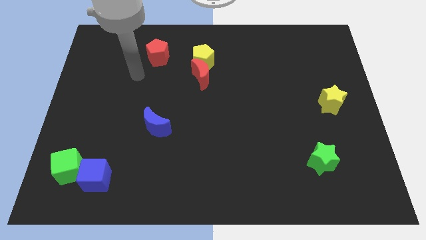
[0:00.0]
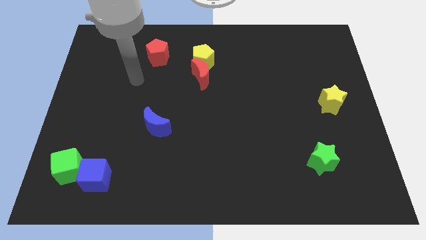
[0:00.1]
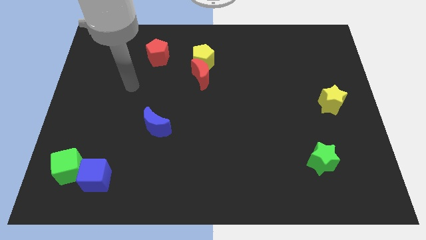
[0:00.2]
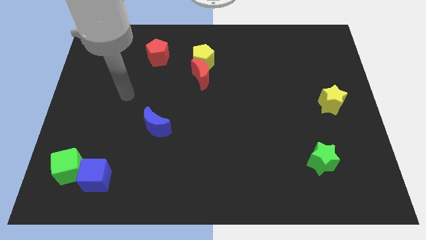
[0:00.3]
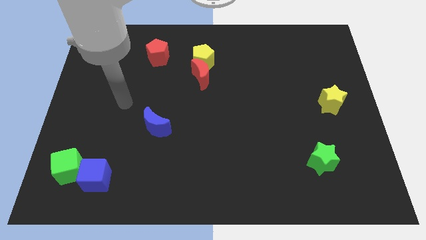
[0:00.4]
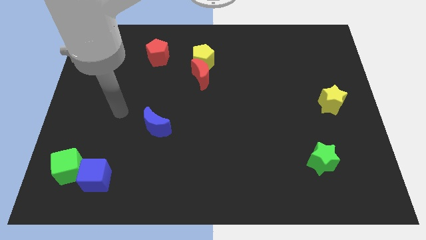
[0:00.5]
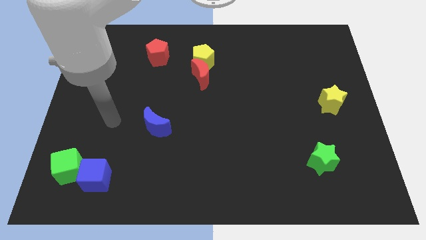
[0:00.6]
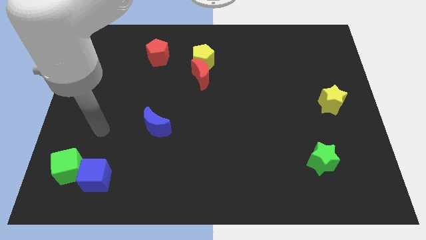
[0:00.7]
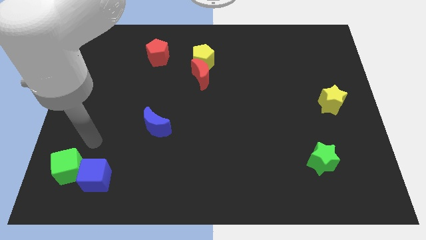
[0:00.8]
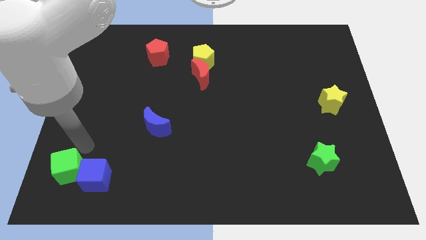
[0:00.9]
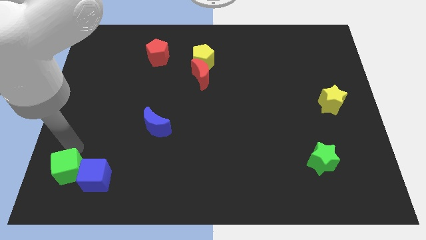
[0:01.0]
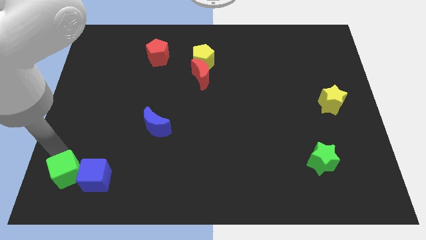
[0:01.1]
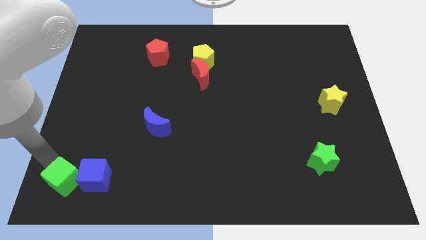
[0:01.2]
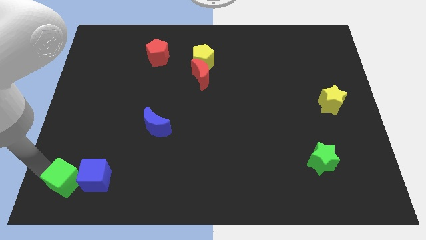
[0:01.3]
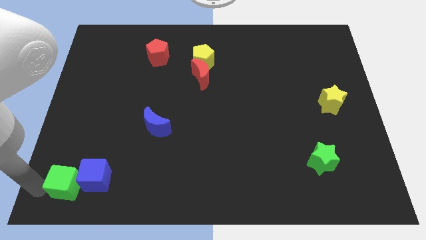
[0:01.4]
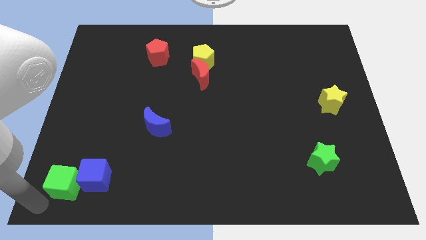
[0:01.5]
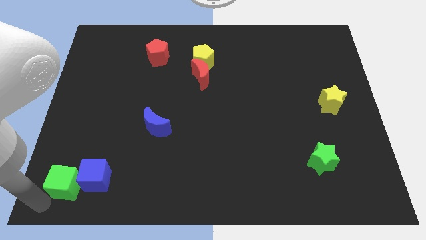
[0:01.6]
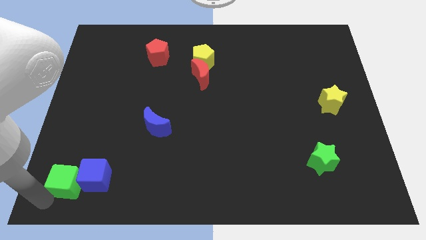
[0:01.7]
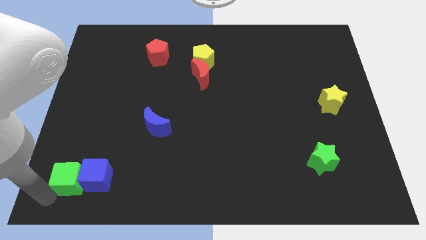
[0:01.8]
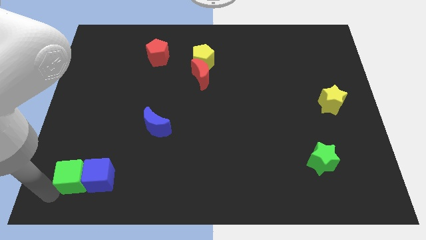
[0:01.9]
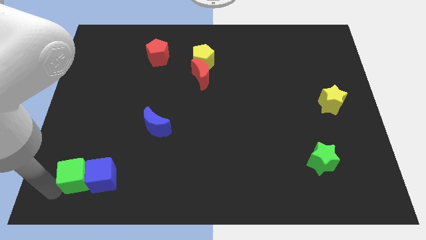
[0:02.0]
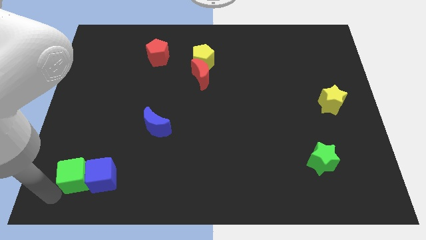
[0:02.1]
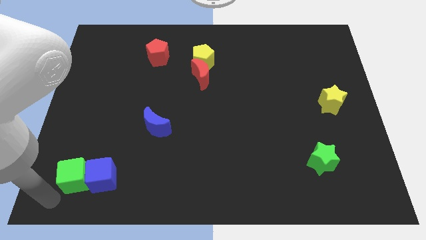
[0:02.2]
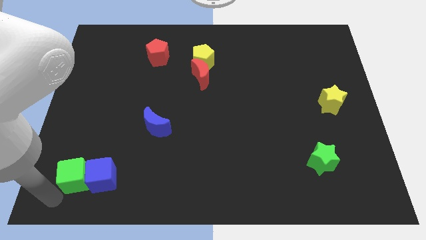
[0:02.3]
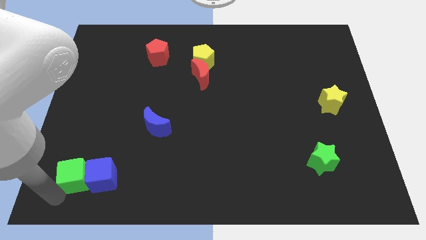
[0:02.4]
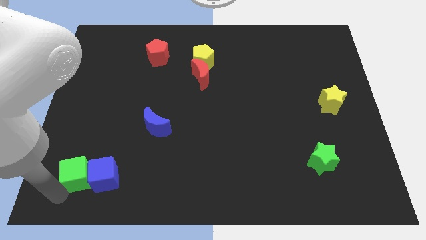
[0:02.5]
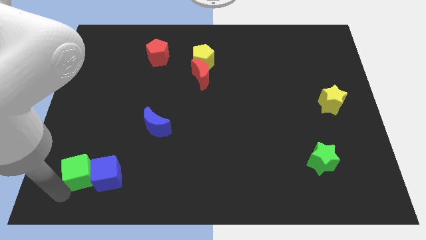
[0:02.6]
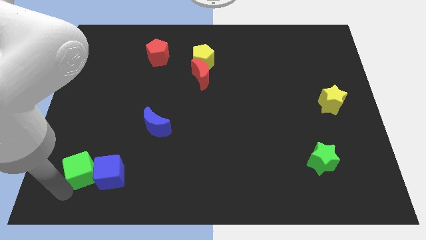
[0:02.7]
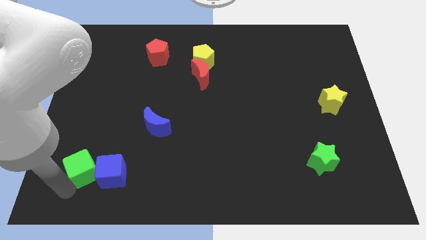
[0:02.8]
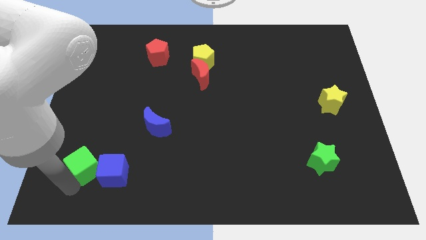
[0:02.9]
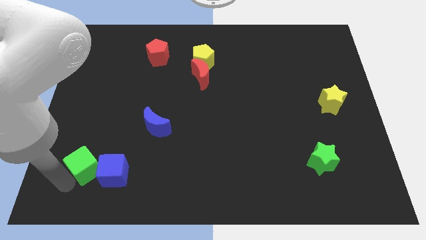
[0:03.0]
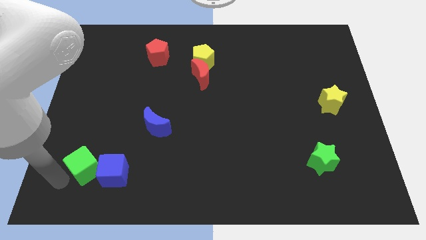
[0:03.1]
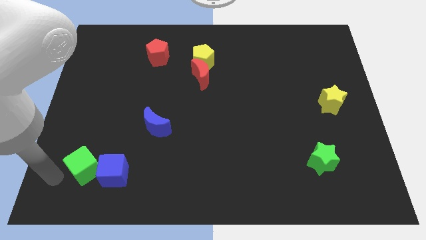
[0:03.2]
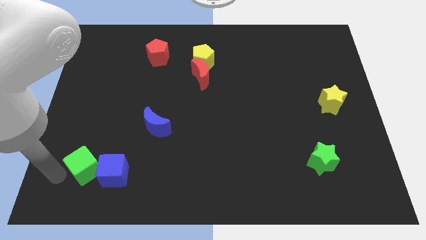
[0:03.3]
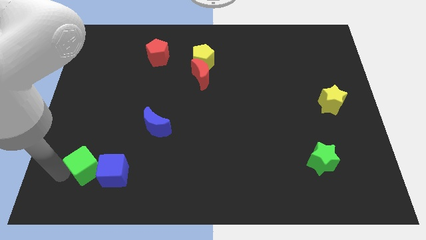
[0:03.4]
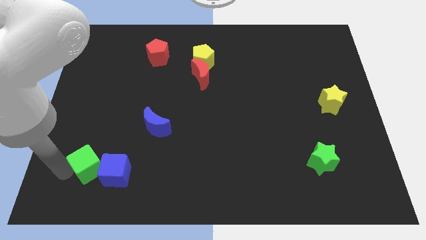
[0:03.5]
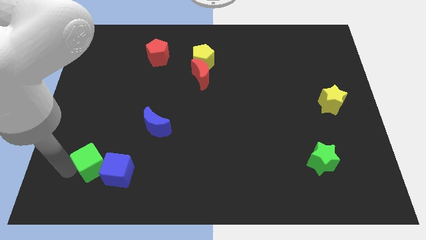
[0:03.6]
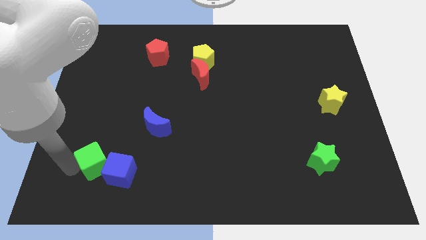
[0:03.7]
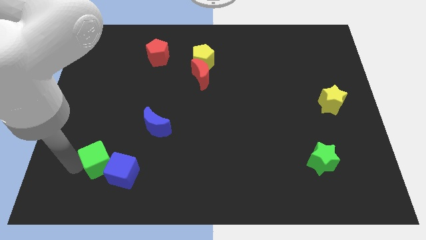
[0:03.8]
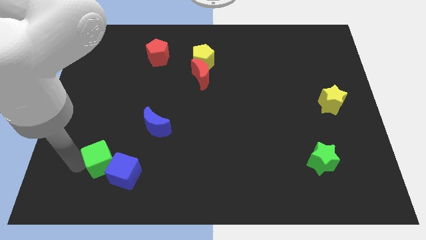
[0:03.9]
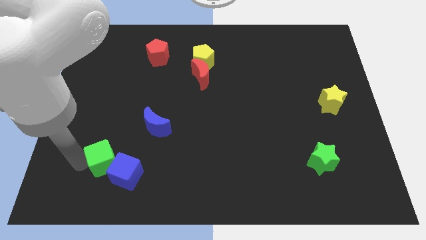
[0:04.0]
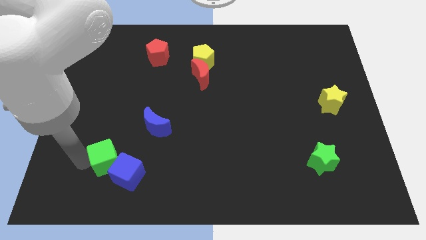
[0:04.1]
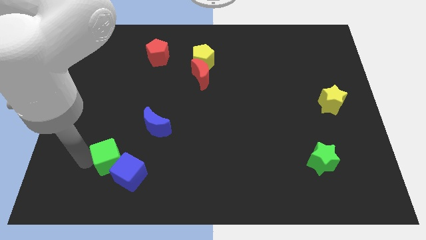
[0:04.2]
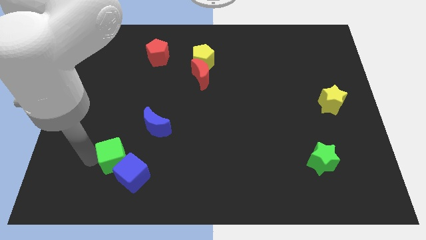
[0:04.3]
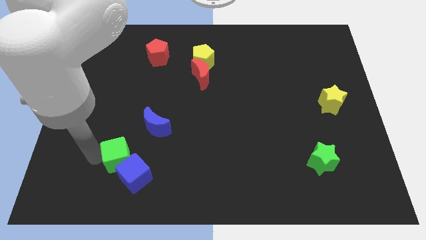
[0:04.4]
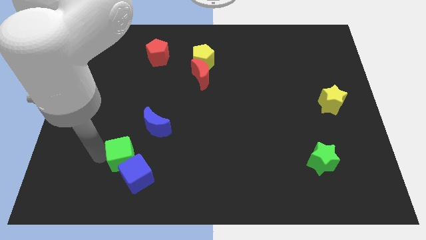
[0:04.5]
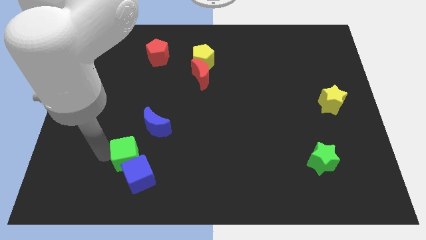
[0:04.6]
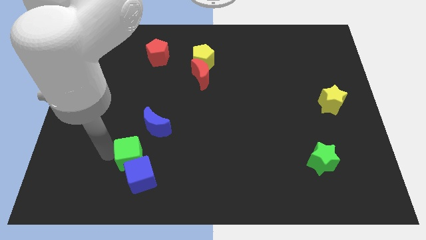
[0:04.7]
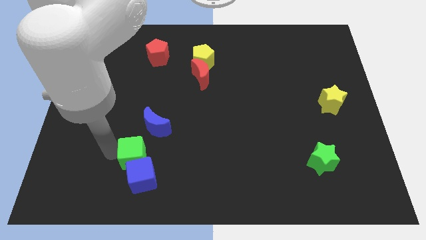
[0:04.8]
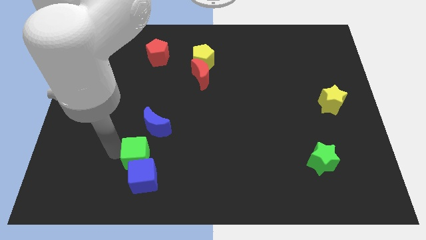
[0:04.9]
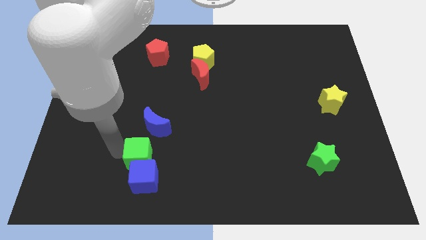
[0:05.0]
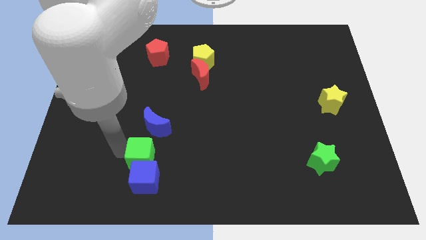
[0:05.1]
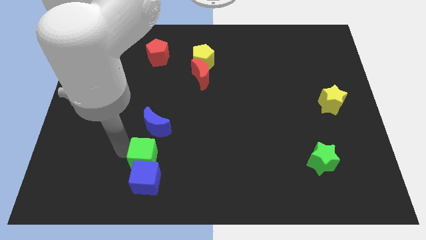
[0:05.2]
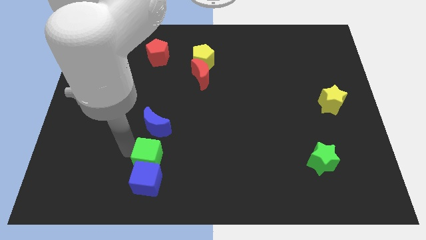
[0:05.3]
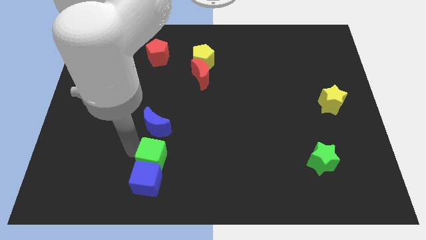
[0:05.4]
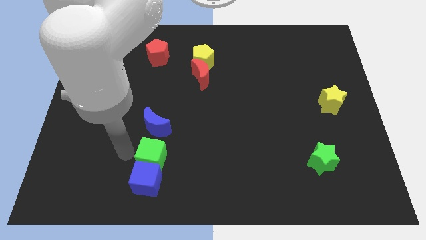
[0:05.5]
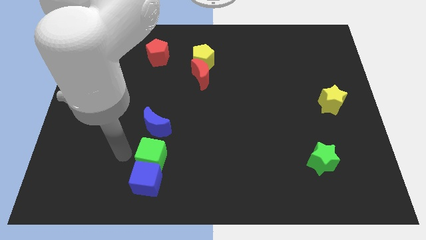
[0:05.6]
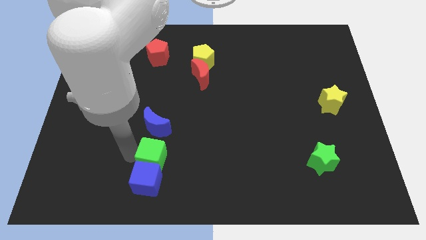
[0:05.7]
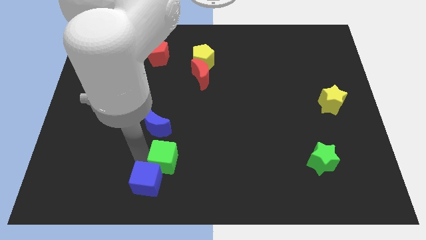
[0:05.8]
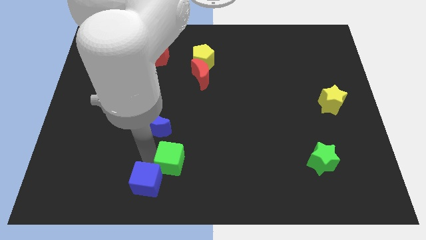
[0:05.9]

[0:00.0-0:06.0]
slide the green cube to the right

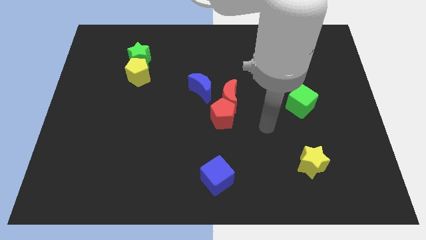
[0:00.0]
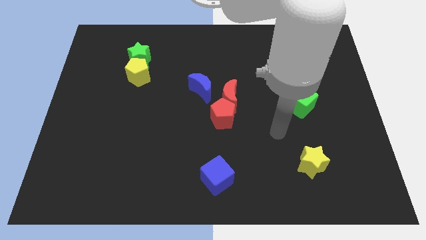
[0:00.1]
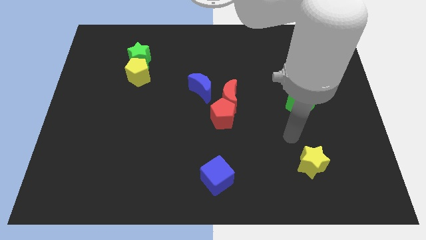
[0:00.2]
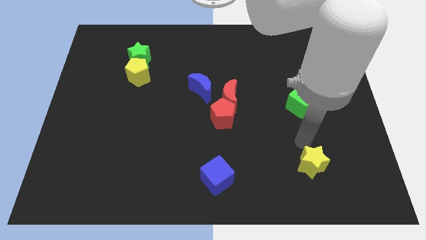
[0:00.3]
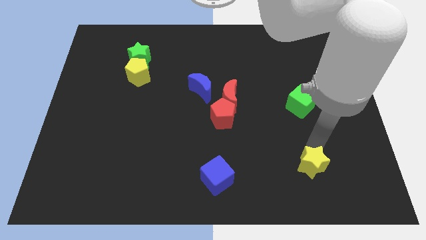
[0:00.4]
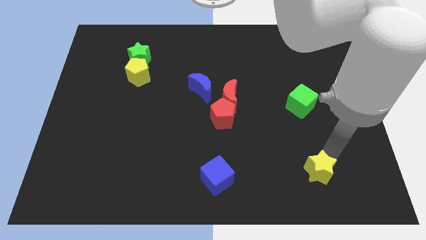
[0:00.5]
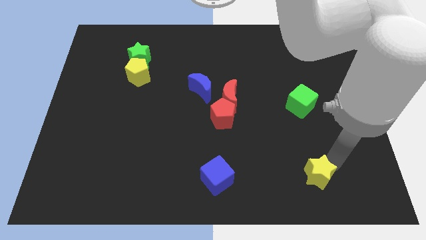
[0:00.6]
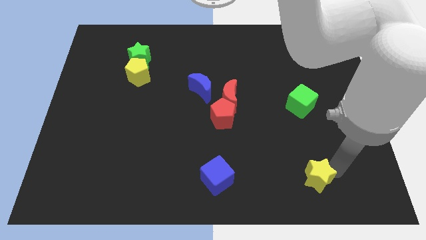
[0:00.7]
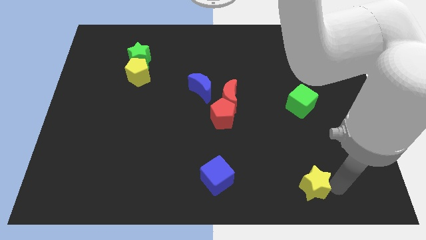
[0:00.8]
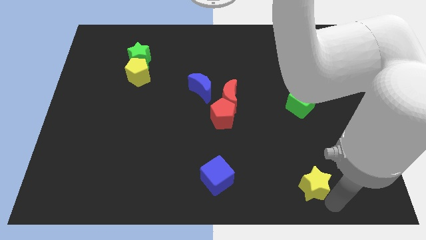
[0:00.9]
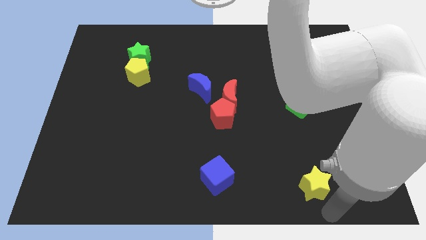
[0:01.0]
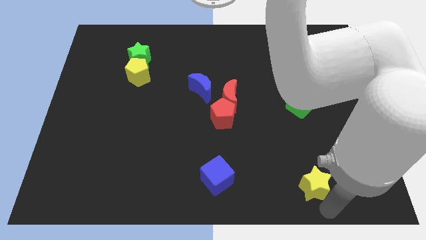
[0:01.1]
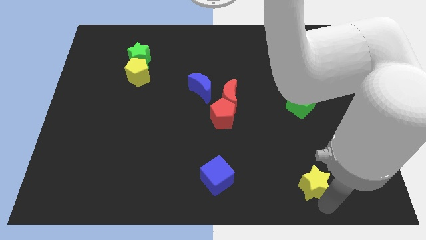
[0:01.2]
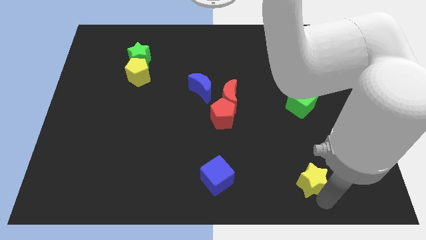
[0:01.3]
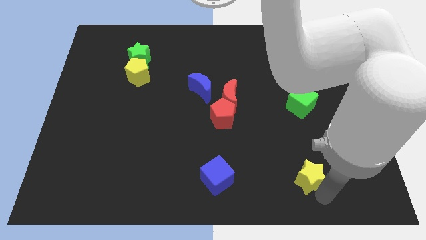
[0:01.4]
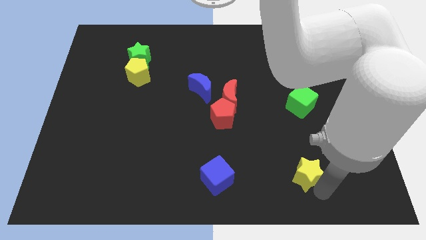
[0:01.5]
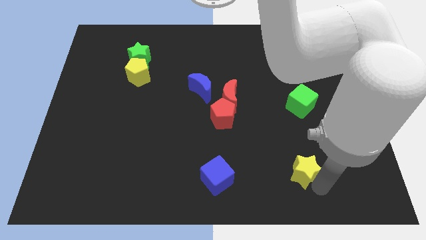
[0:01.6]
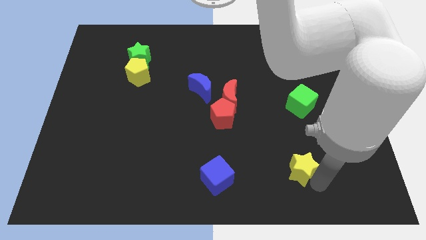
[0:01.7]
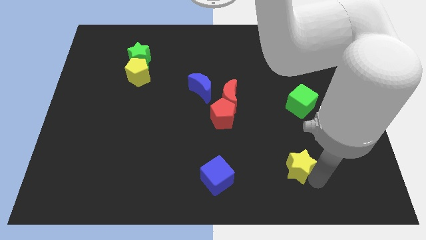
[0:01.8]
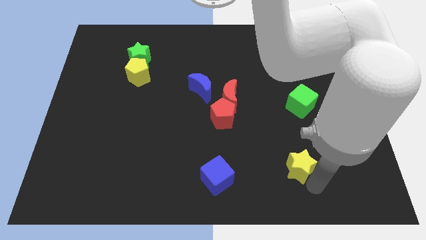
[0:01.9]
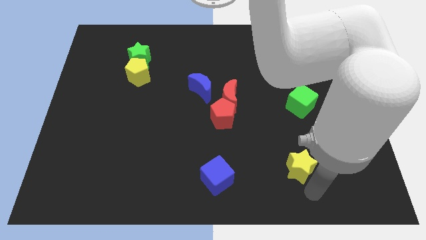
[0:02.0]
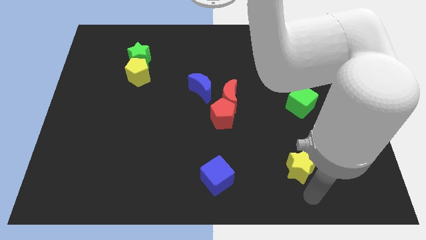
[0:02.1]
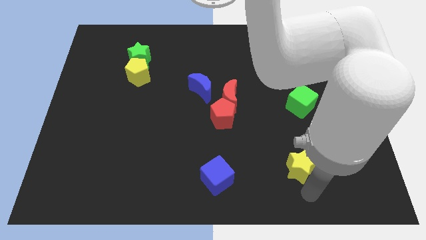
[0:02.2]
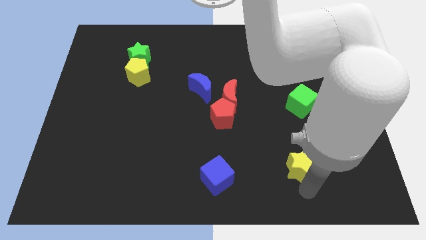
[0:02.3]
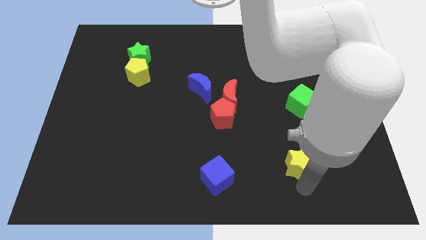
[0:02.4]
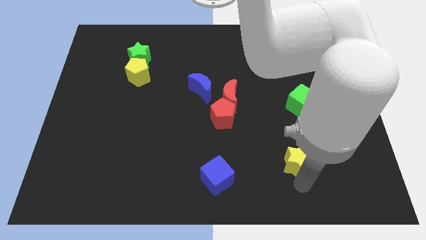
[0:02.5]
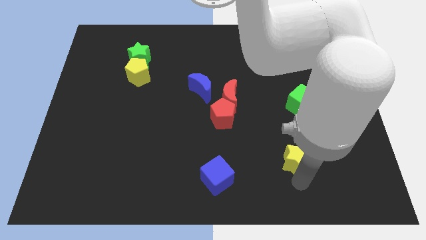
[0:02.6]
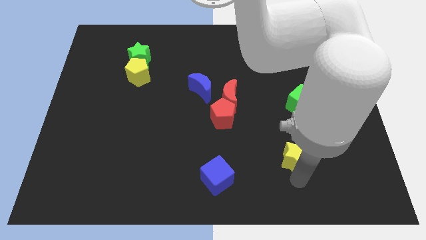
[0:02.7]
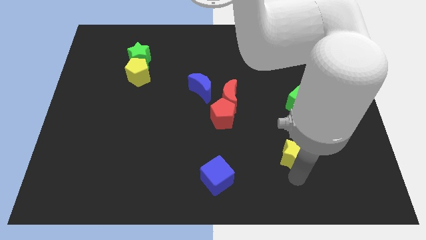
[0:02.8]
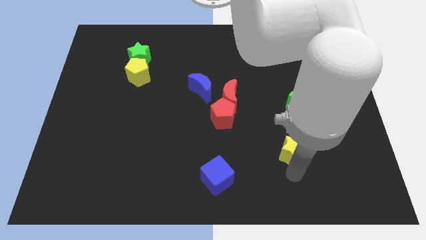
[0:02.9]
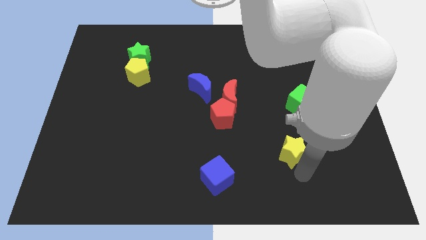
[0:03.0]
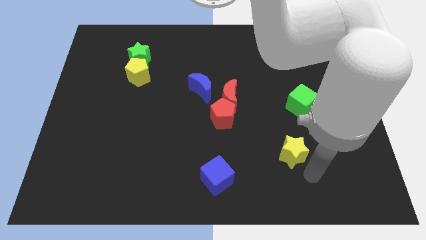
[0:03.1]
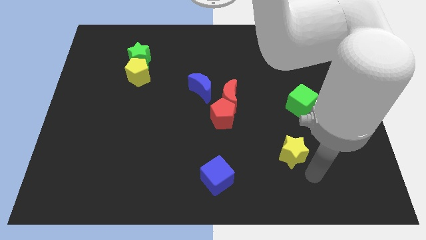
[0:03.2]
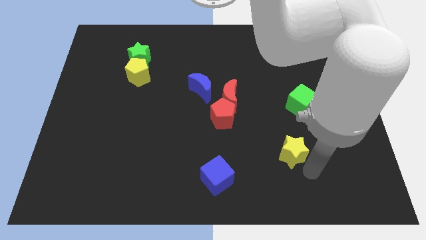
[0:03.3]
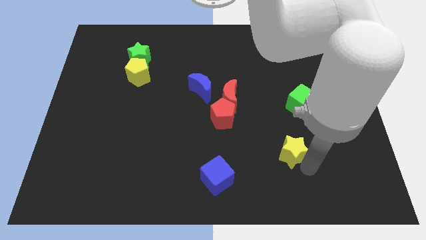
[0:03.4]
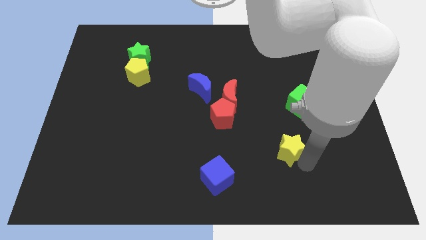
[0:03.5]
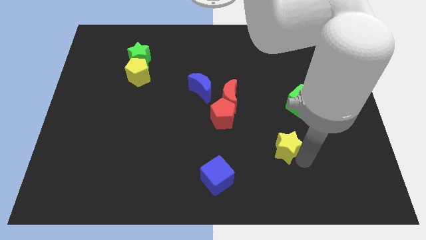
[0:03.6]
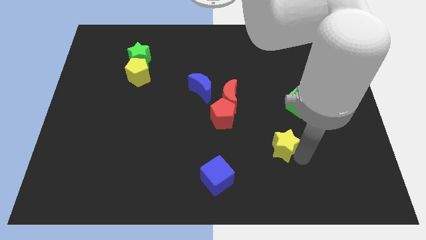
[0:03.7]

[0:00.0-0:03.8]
push the yellow star up and to the left a bit
